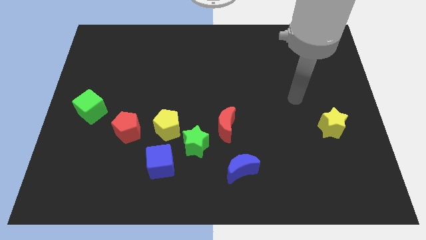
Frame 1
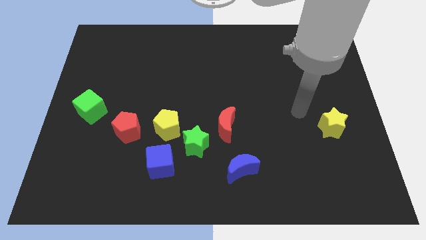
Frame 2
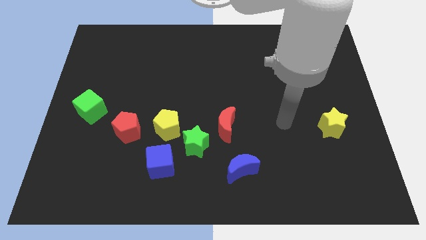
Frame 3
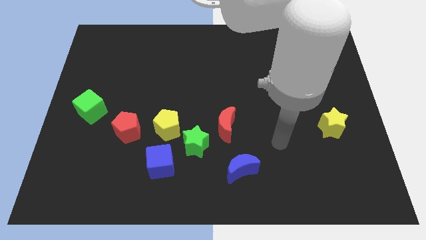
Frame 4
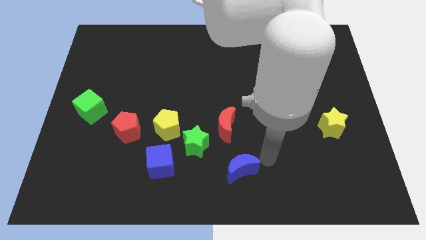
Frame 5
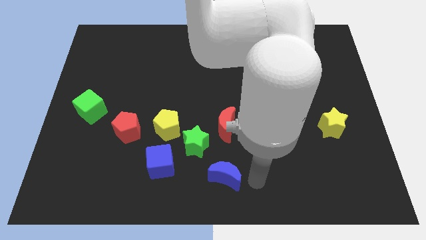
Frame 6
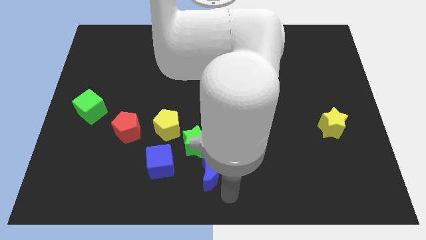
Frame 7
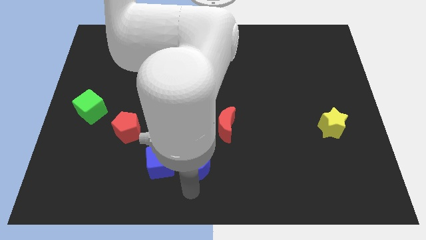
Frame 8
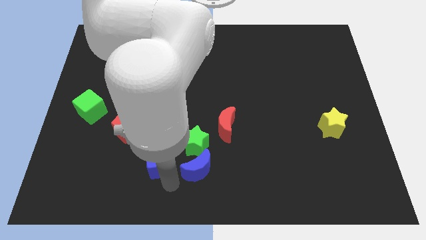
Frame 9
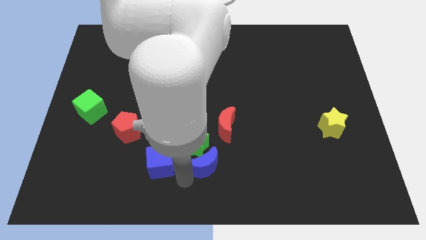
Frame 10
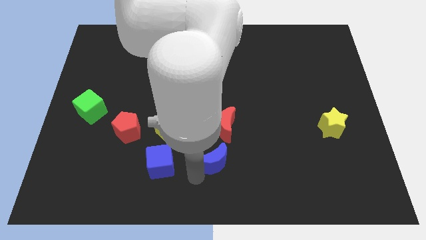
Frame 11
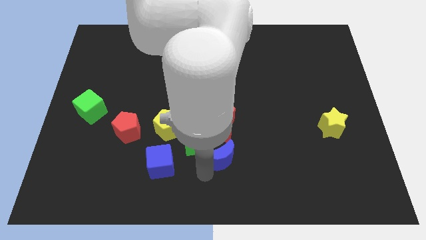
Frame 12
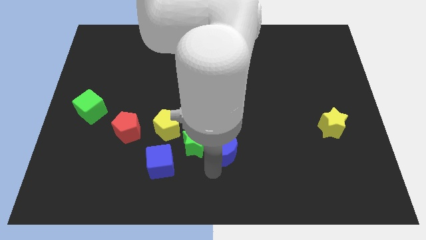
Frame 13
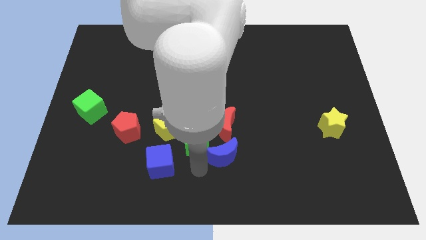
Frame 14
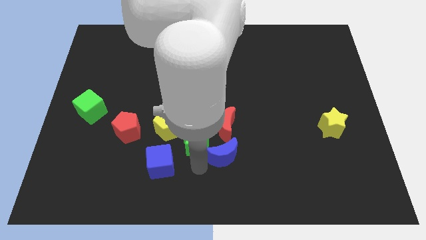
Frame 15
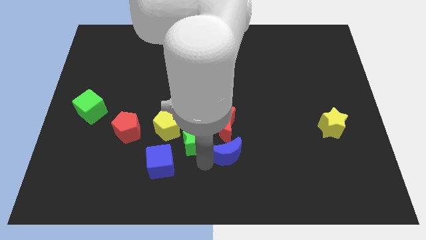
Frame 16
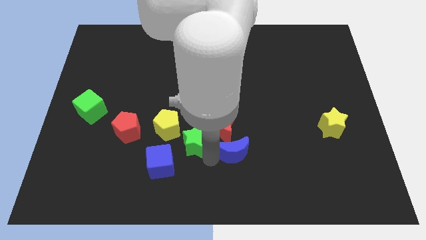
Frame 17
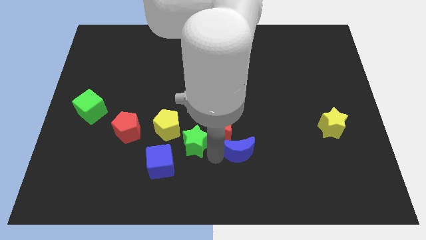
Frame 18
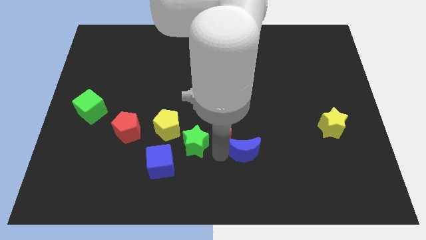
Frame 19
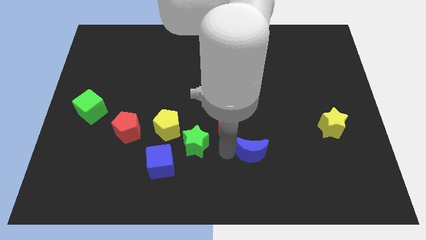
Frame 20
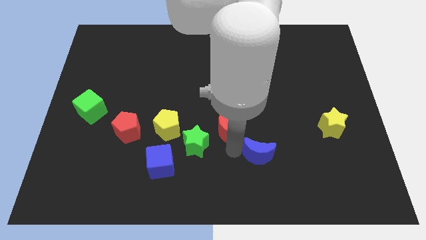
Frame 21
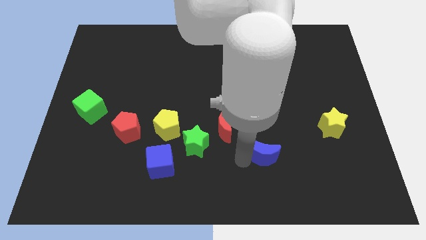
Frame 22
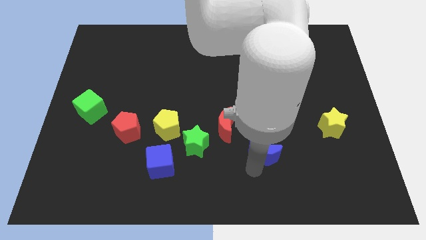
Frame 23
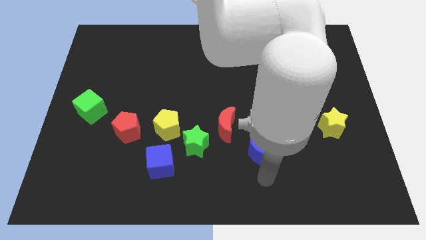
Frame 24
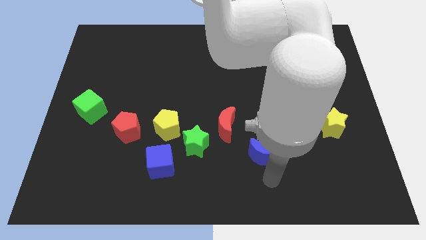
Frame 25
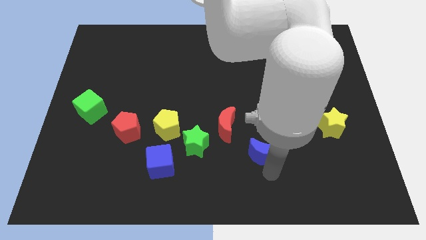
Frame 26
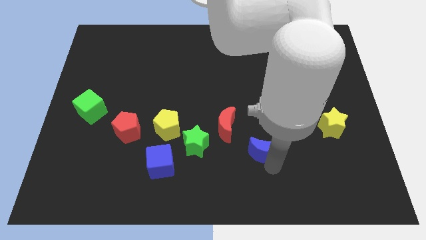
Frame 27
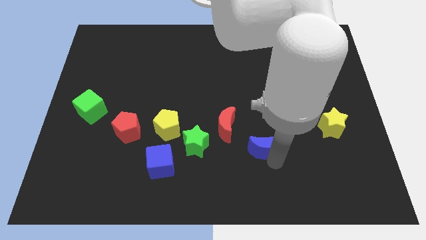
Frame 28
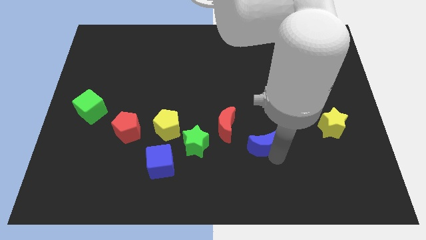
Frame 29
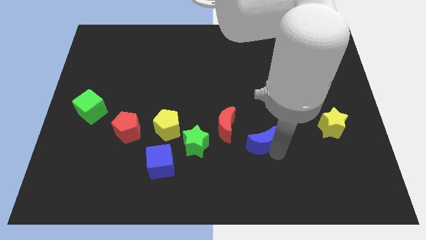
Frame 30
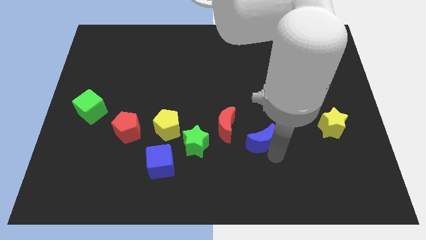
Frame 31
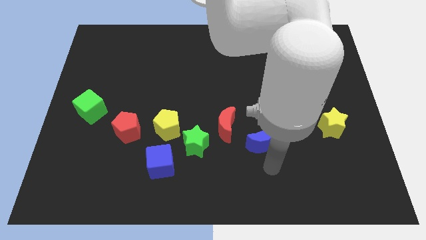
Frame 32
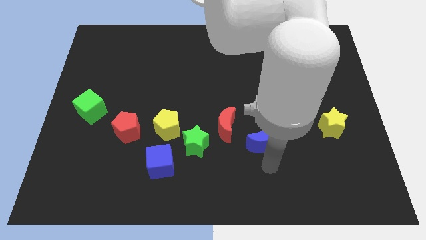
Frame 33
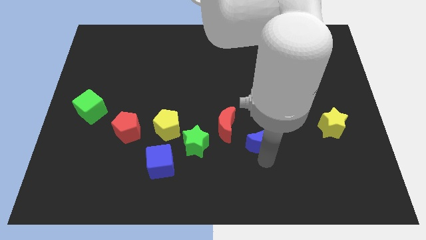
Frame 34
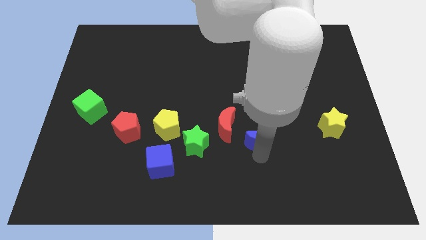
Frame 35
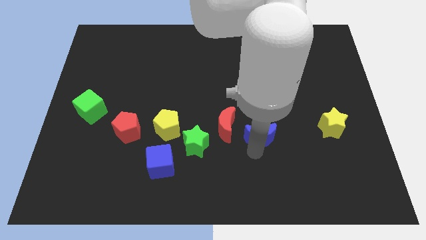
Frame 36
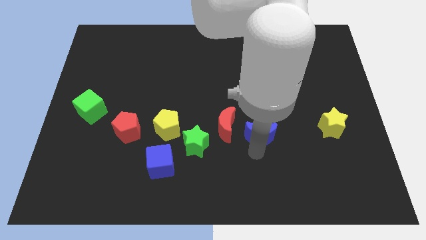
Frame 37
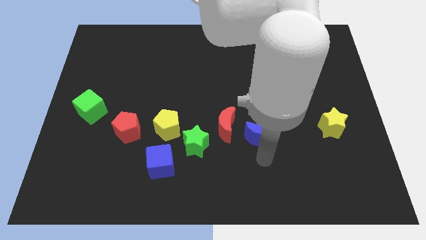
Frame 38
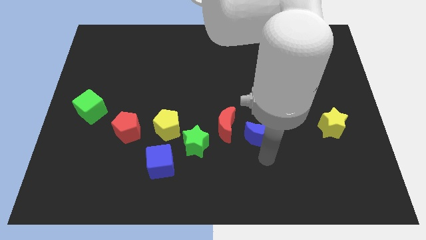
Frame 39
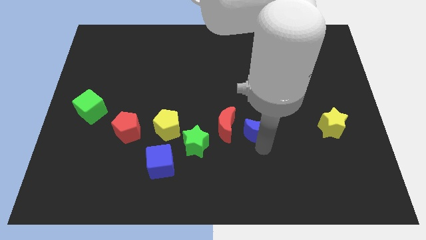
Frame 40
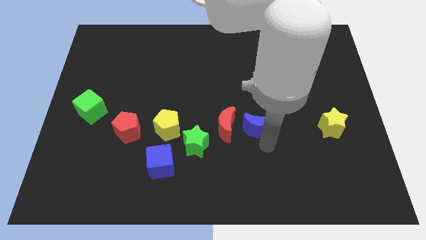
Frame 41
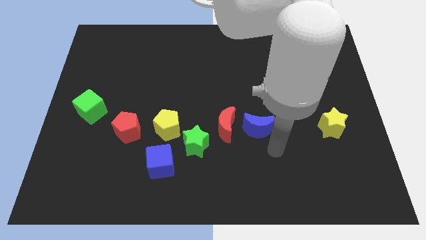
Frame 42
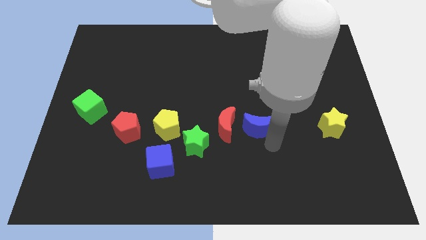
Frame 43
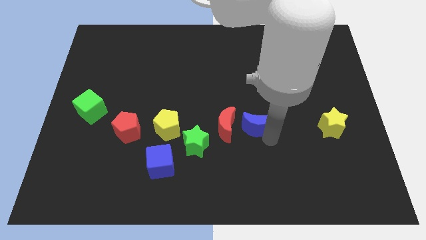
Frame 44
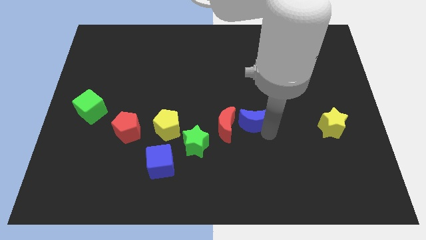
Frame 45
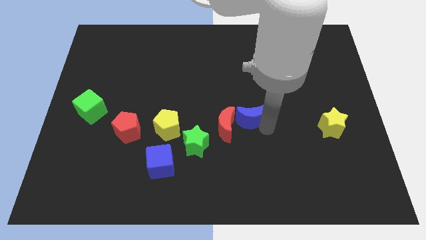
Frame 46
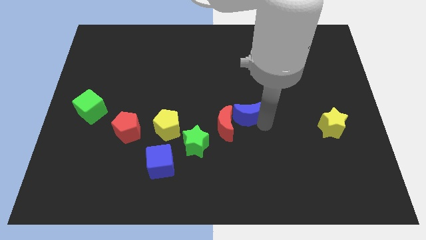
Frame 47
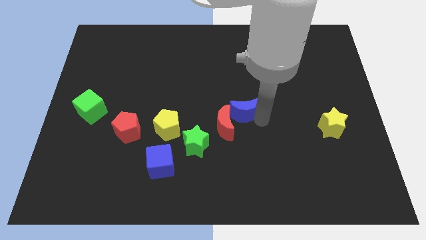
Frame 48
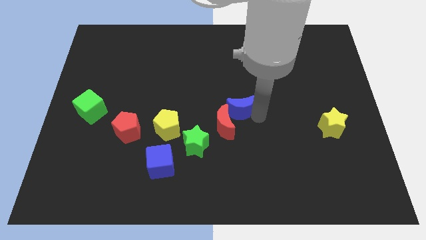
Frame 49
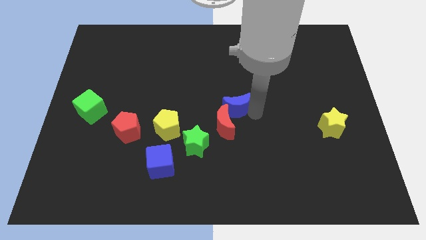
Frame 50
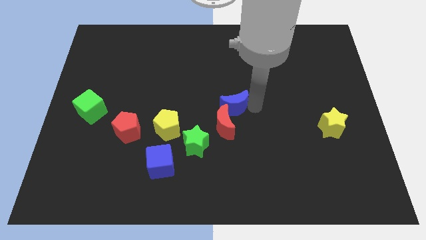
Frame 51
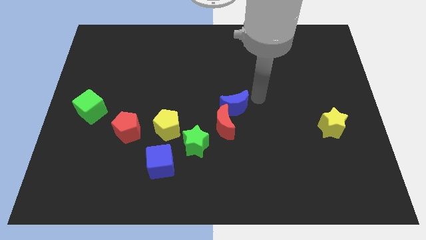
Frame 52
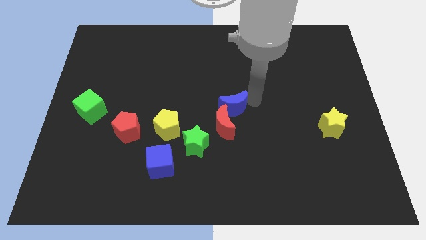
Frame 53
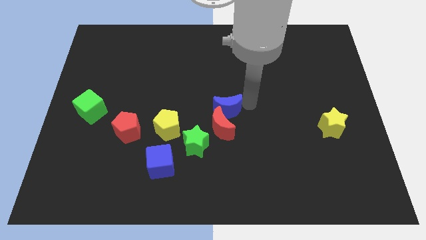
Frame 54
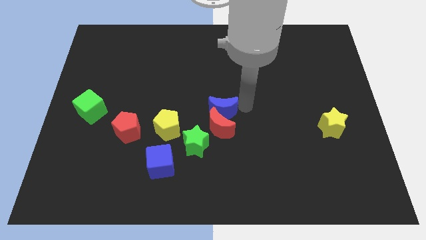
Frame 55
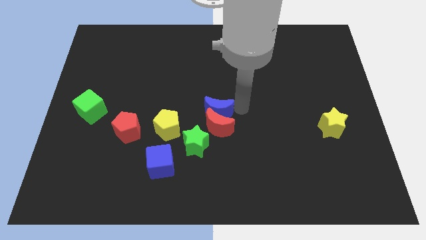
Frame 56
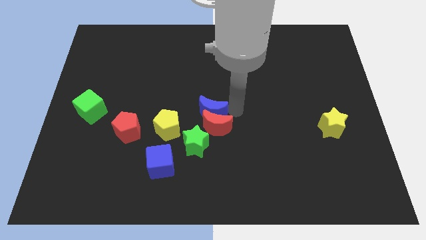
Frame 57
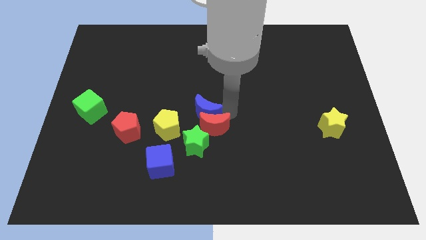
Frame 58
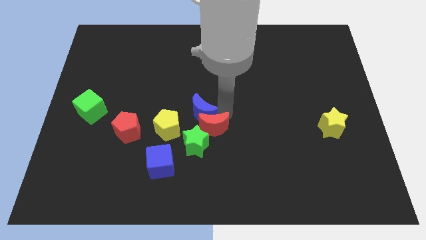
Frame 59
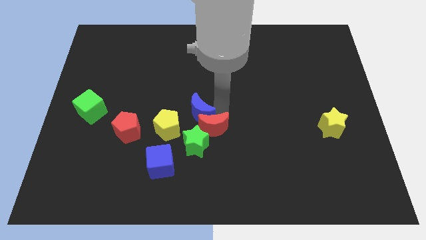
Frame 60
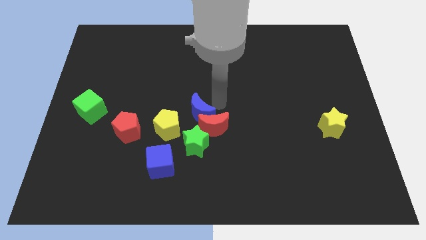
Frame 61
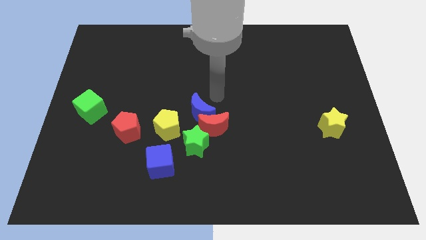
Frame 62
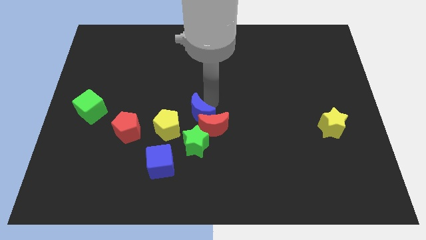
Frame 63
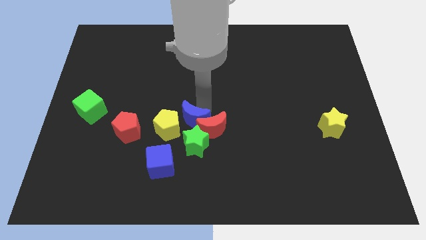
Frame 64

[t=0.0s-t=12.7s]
push the blue moon to the yellow pentagon
